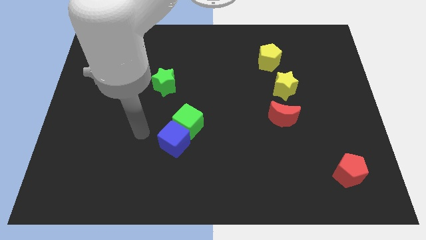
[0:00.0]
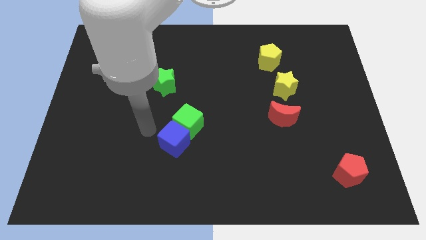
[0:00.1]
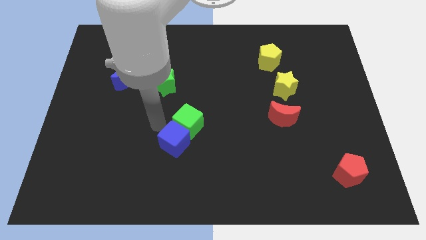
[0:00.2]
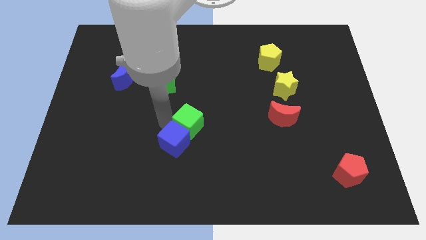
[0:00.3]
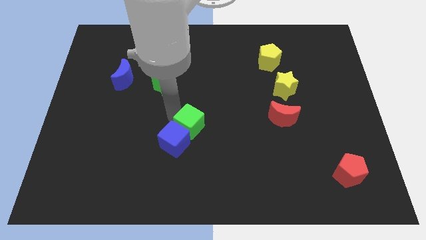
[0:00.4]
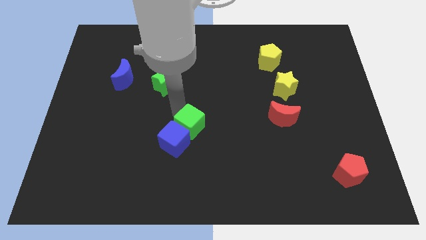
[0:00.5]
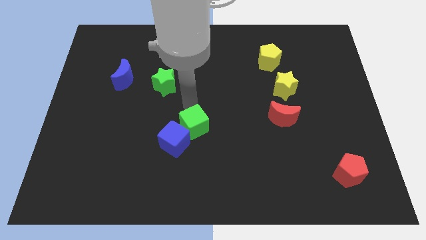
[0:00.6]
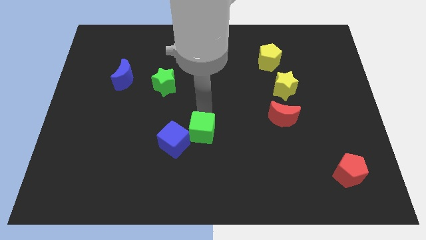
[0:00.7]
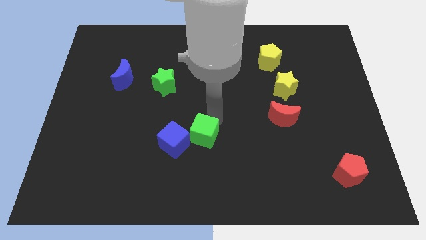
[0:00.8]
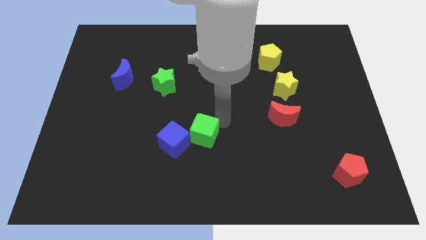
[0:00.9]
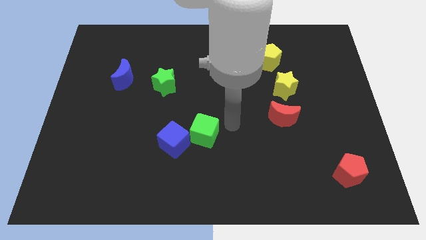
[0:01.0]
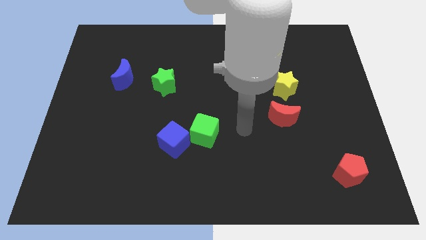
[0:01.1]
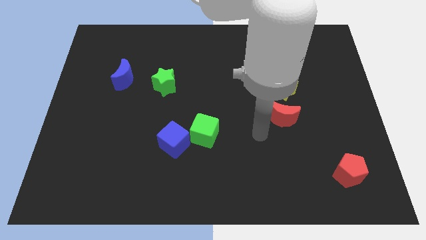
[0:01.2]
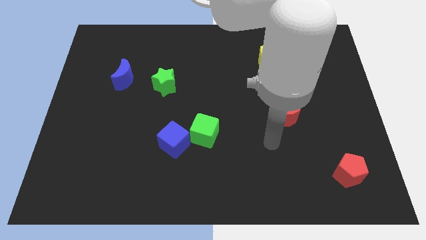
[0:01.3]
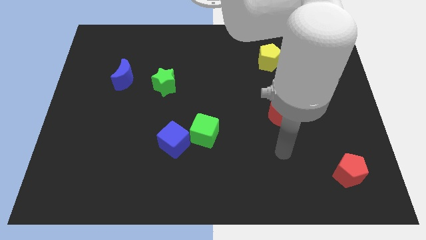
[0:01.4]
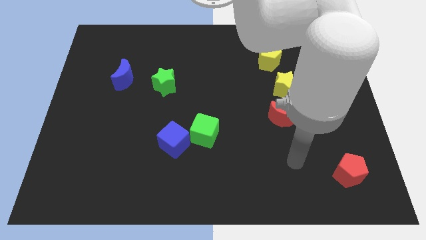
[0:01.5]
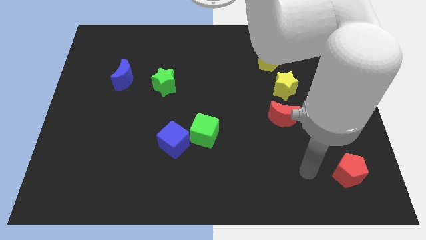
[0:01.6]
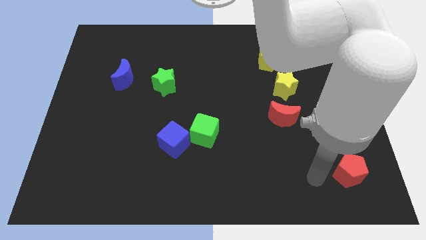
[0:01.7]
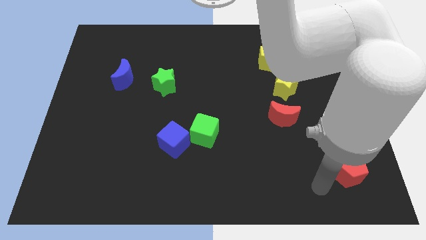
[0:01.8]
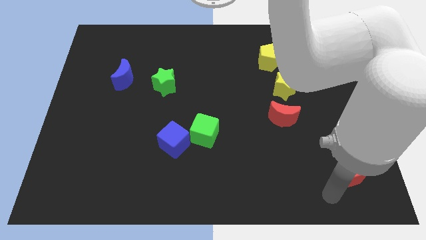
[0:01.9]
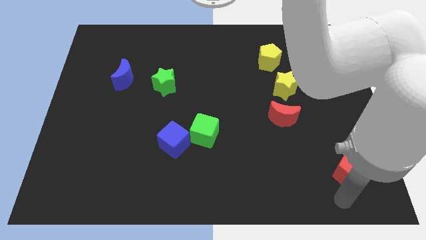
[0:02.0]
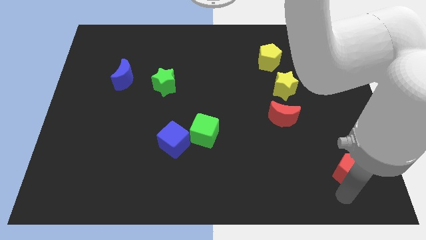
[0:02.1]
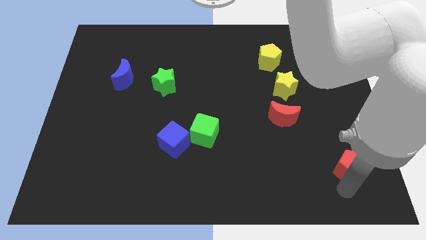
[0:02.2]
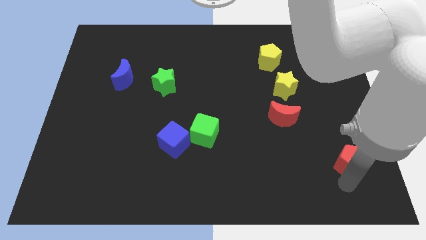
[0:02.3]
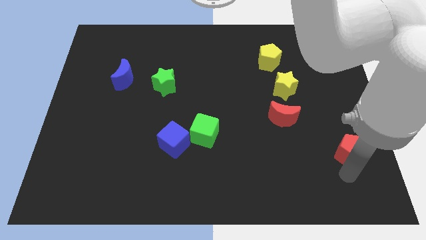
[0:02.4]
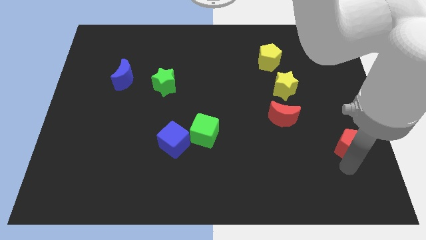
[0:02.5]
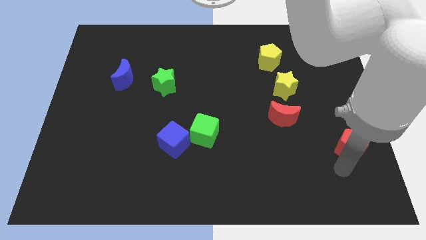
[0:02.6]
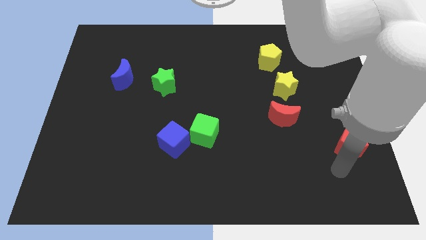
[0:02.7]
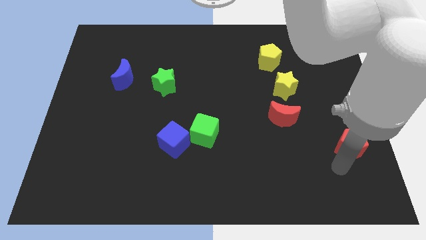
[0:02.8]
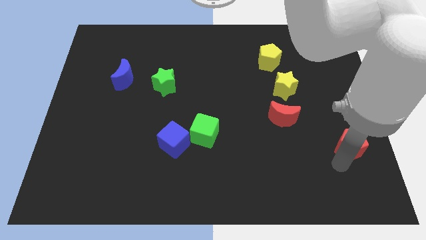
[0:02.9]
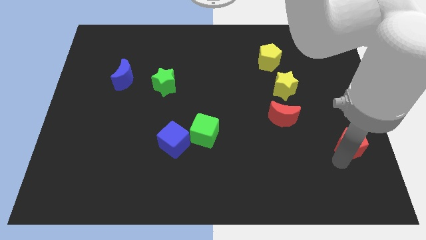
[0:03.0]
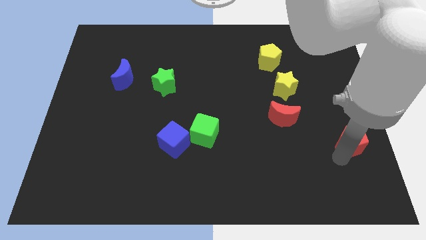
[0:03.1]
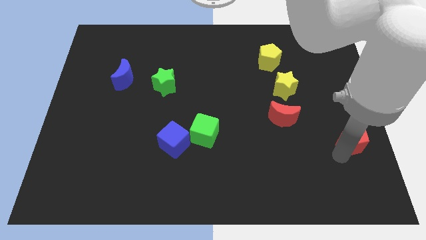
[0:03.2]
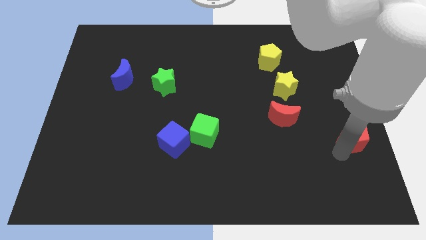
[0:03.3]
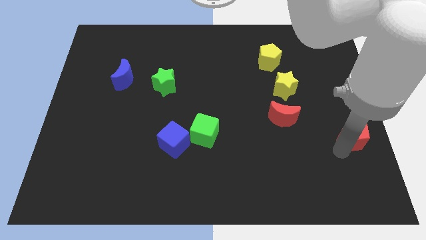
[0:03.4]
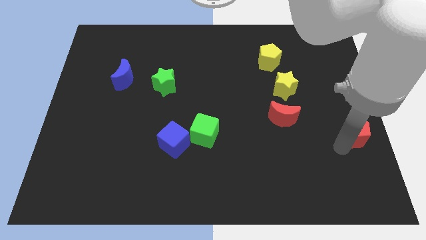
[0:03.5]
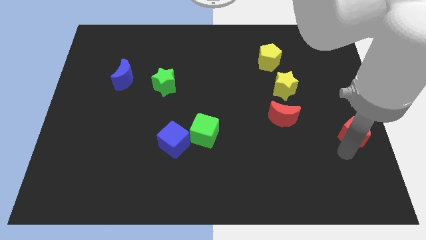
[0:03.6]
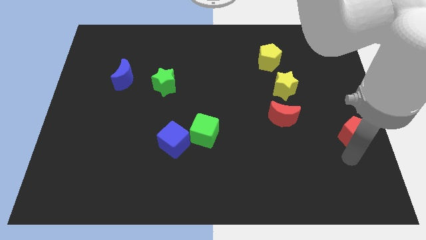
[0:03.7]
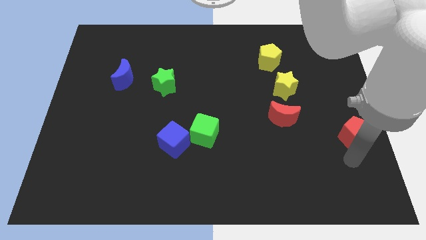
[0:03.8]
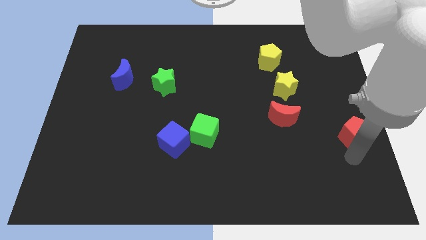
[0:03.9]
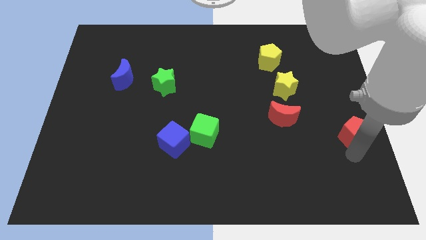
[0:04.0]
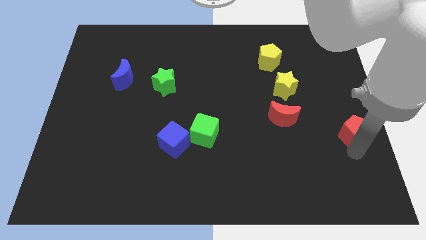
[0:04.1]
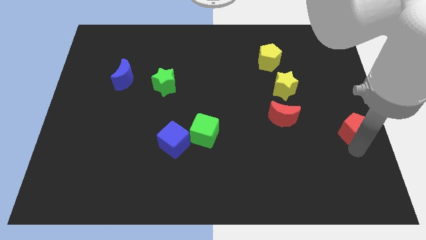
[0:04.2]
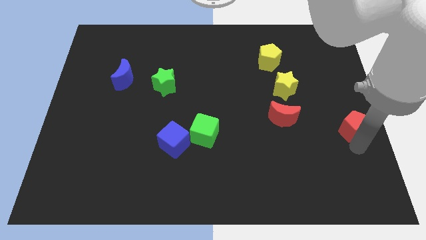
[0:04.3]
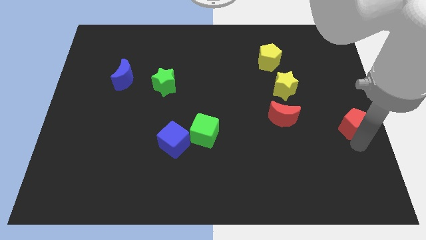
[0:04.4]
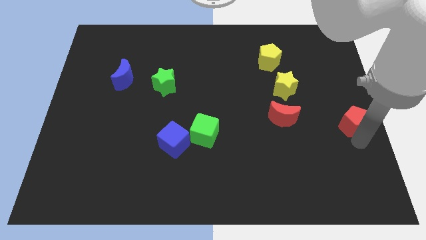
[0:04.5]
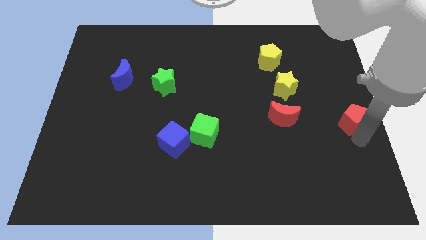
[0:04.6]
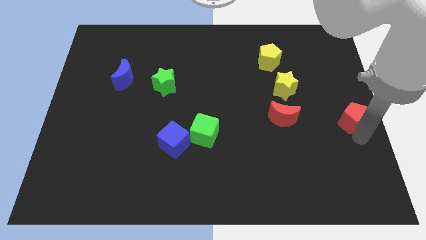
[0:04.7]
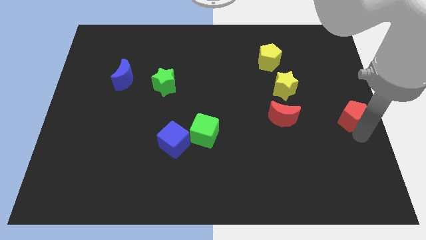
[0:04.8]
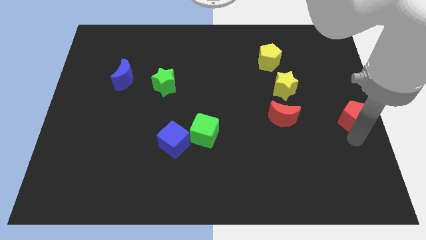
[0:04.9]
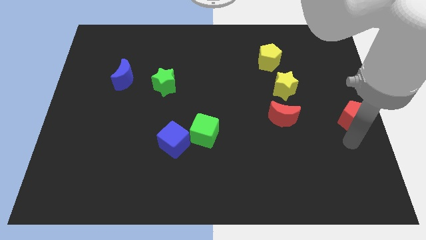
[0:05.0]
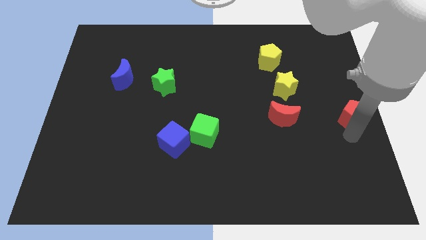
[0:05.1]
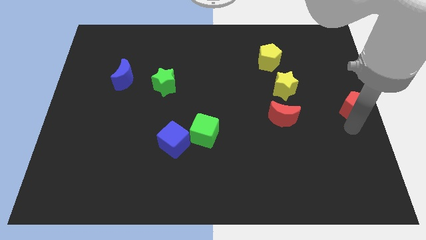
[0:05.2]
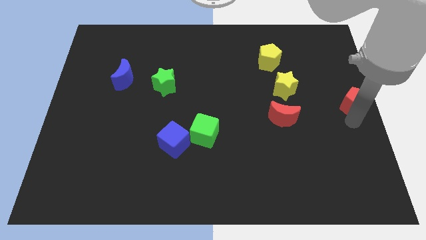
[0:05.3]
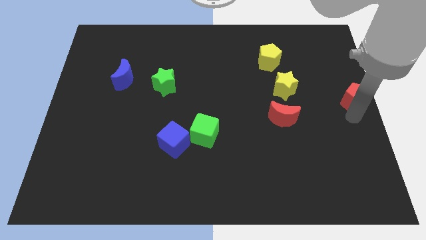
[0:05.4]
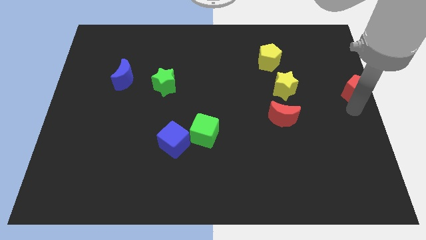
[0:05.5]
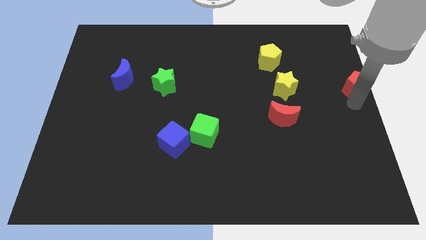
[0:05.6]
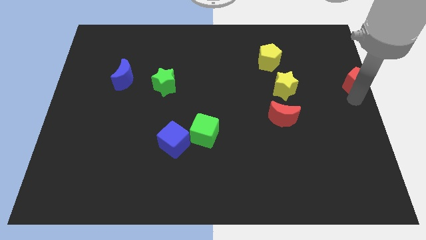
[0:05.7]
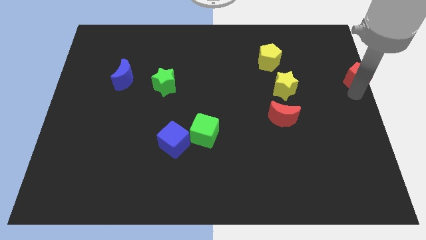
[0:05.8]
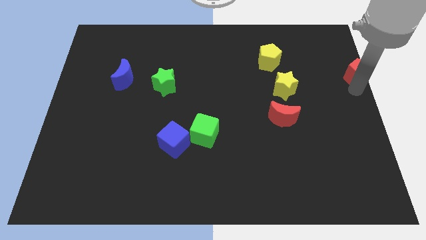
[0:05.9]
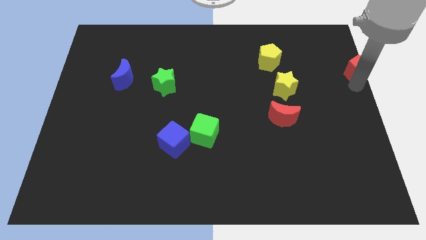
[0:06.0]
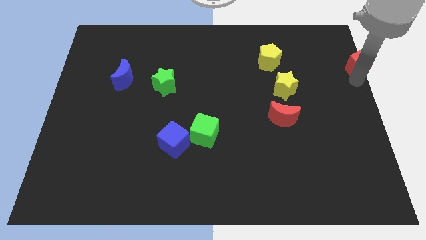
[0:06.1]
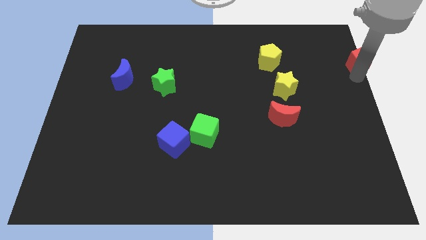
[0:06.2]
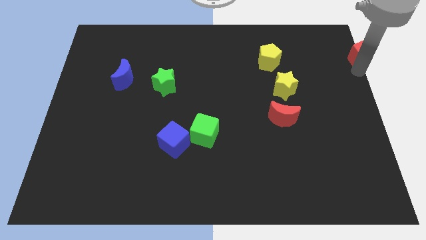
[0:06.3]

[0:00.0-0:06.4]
move the red pentagon to the top right

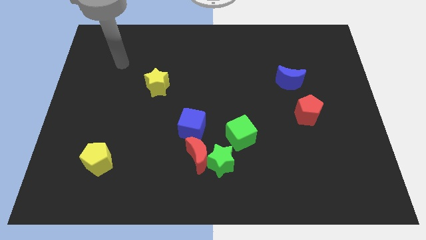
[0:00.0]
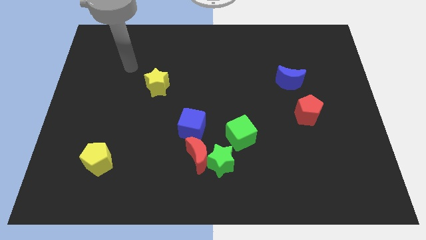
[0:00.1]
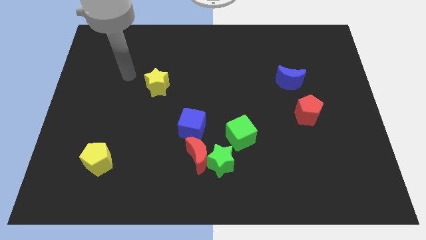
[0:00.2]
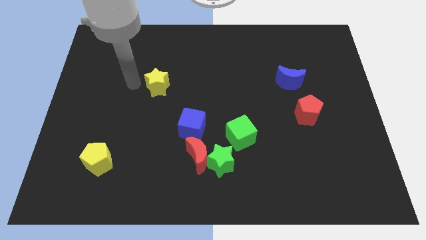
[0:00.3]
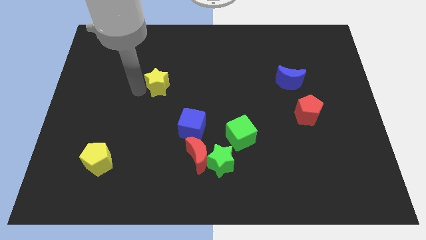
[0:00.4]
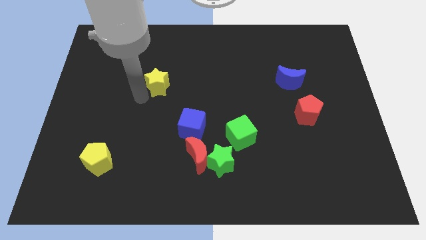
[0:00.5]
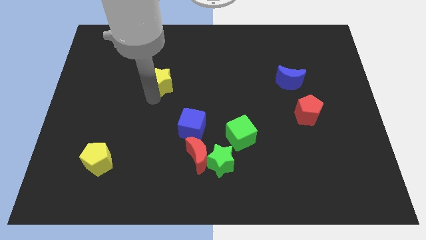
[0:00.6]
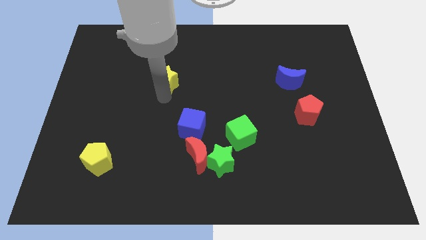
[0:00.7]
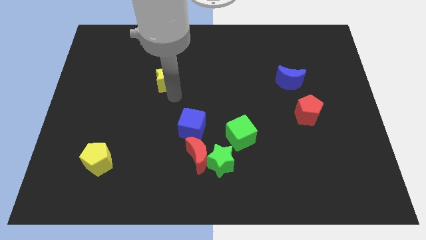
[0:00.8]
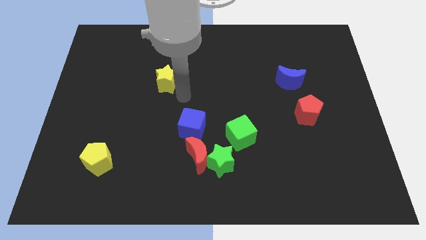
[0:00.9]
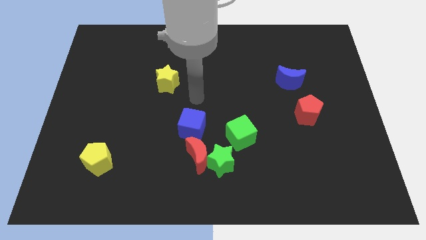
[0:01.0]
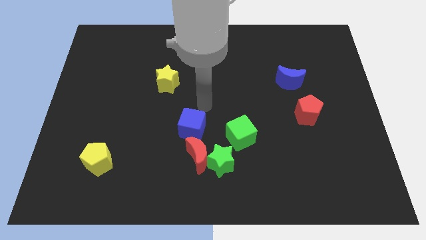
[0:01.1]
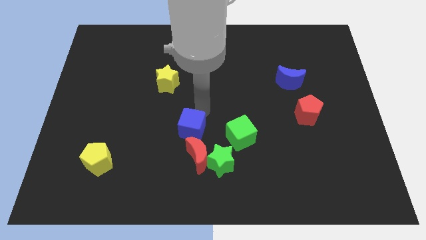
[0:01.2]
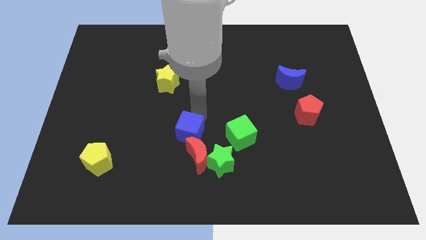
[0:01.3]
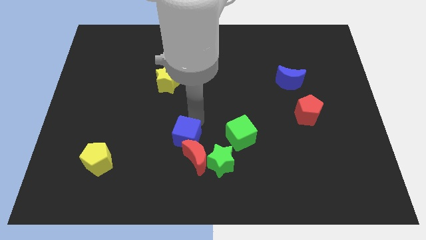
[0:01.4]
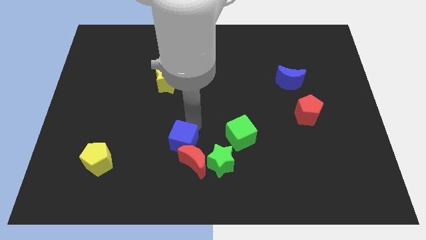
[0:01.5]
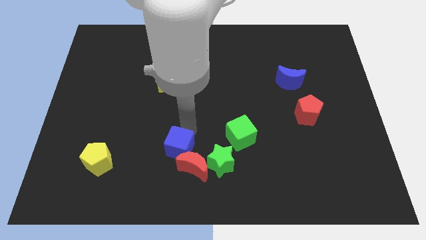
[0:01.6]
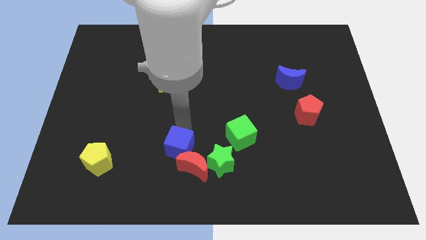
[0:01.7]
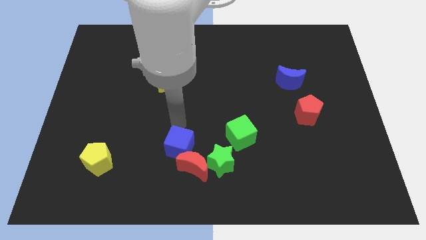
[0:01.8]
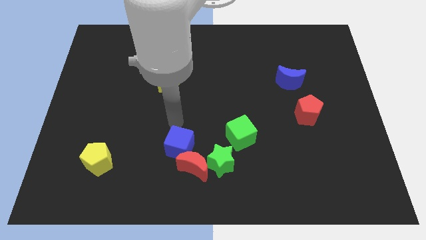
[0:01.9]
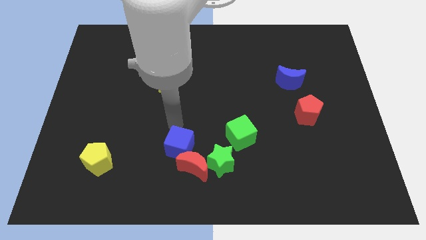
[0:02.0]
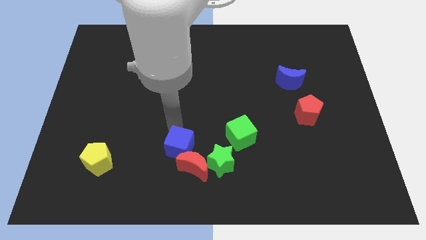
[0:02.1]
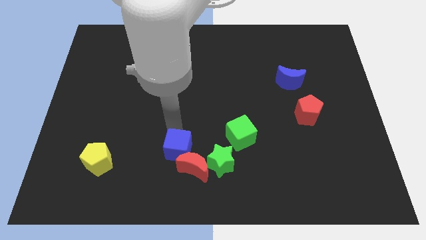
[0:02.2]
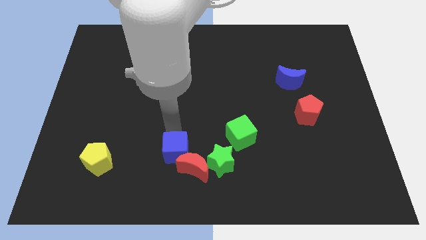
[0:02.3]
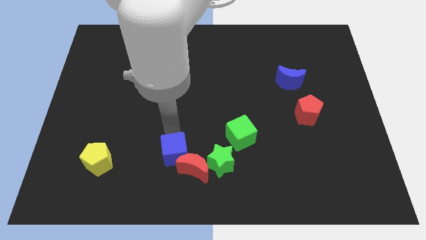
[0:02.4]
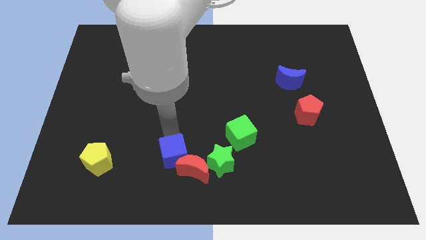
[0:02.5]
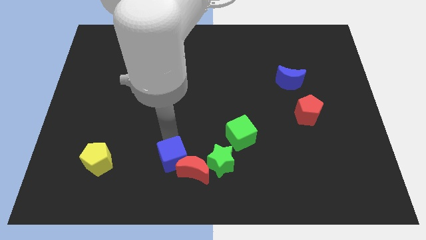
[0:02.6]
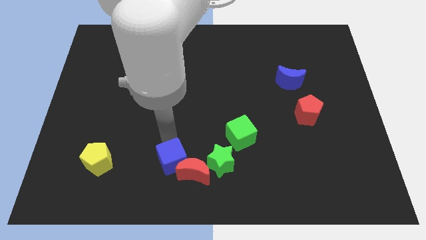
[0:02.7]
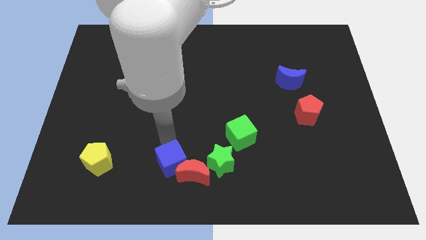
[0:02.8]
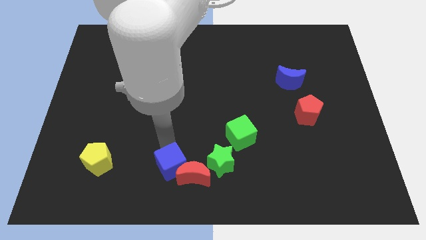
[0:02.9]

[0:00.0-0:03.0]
push the blue cube to the bottom side
